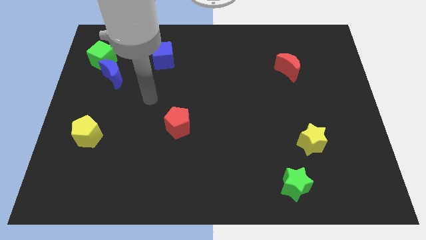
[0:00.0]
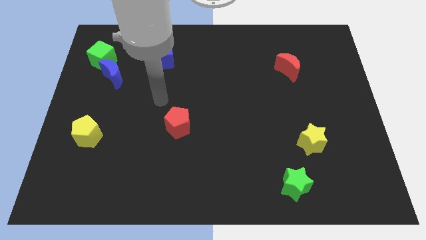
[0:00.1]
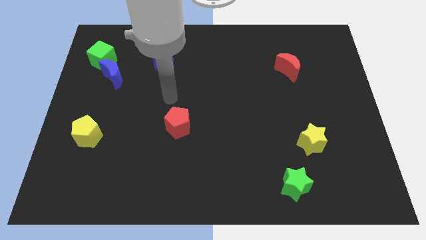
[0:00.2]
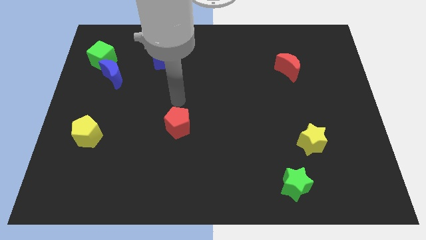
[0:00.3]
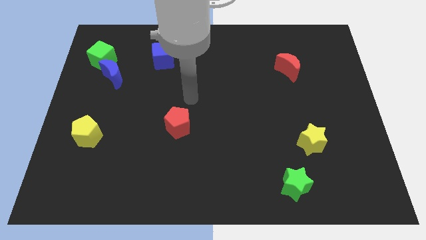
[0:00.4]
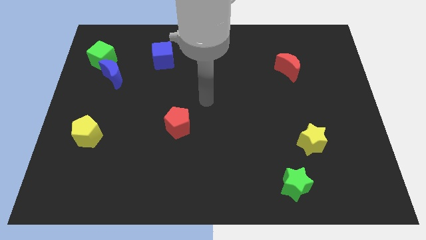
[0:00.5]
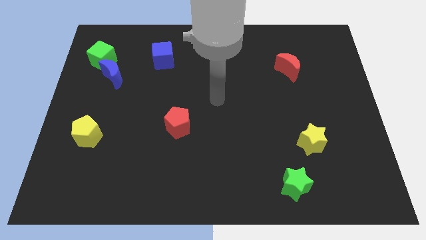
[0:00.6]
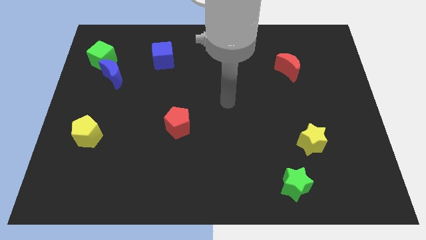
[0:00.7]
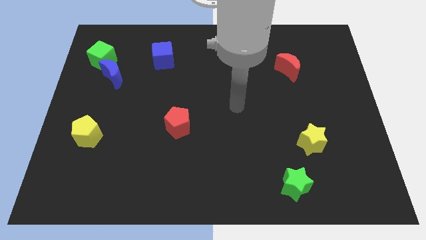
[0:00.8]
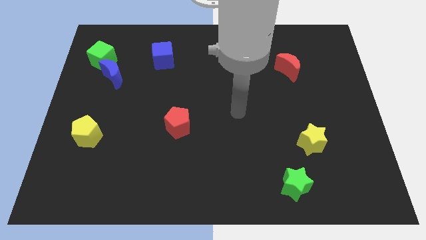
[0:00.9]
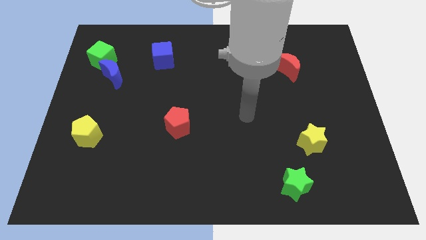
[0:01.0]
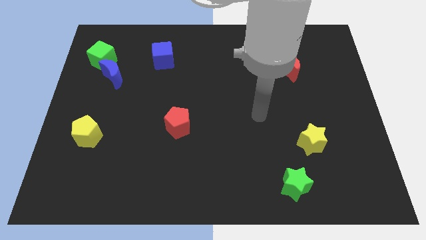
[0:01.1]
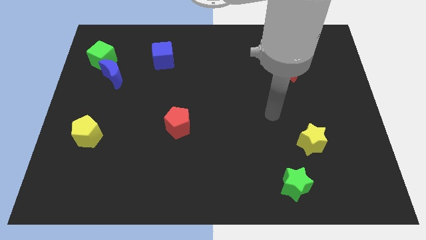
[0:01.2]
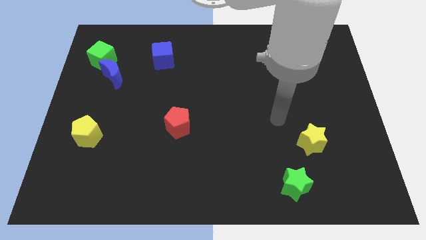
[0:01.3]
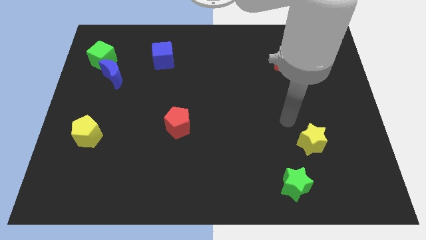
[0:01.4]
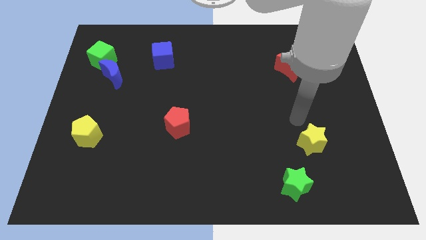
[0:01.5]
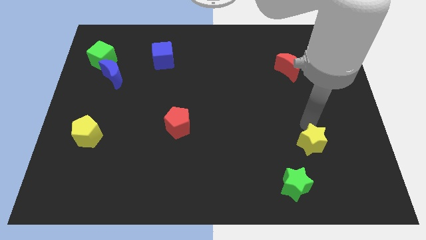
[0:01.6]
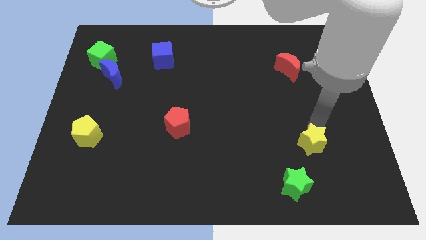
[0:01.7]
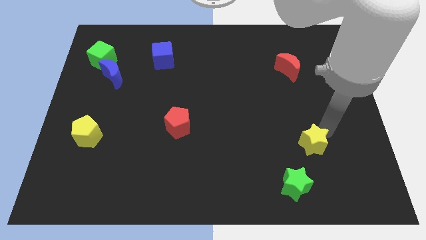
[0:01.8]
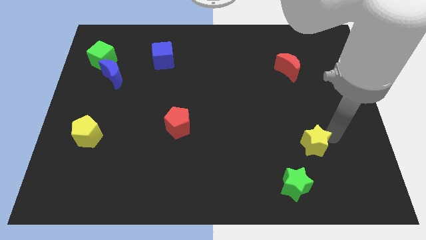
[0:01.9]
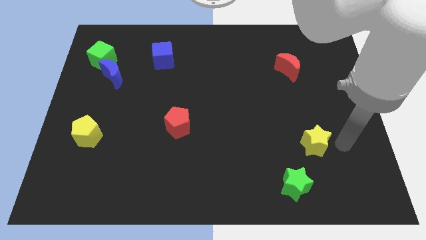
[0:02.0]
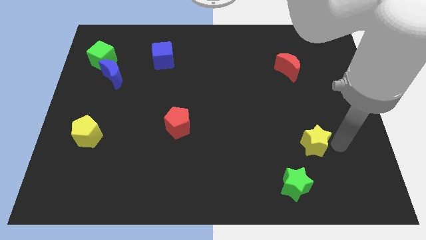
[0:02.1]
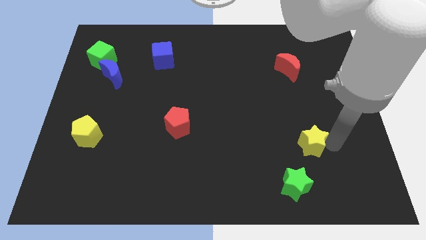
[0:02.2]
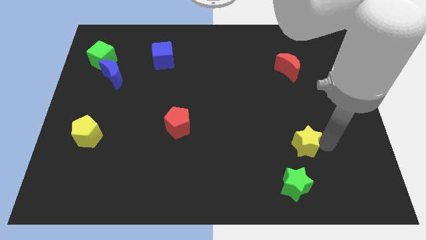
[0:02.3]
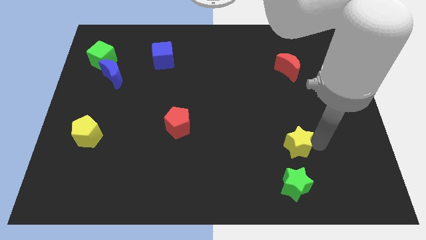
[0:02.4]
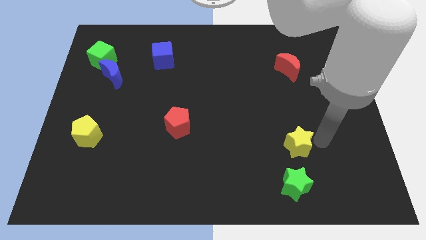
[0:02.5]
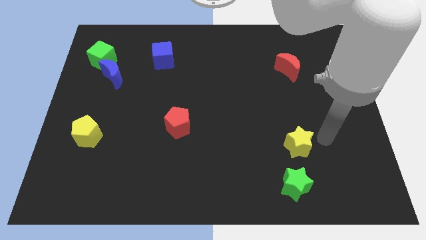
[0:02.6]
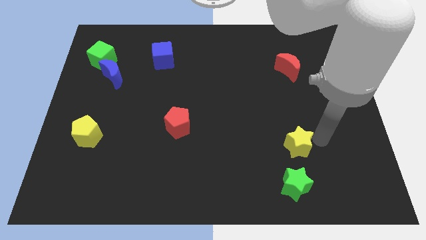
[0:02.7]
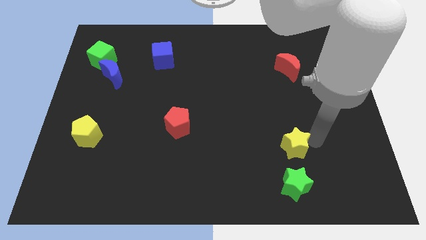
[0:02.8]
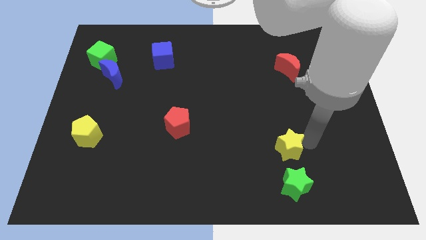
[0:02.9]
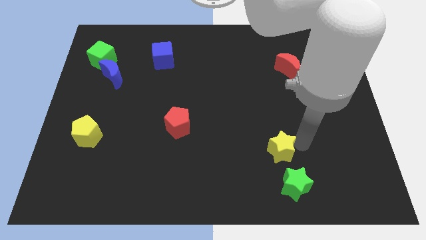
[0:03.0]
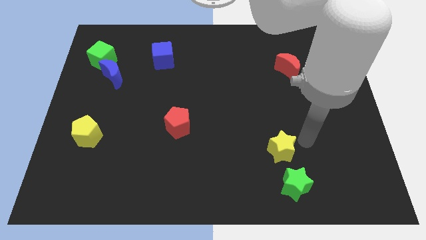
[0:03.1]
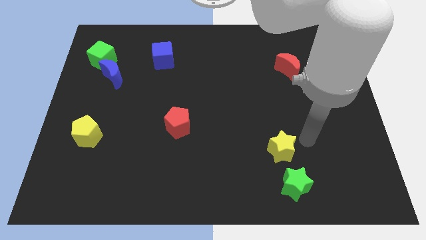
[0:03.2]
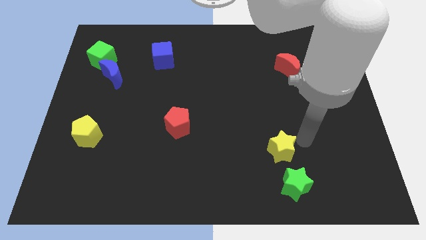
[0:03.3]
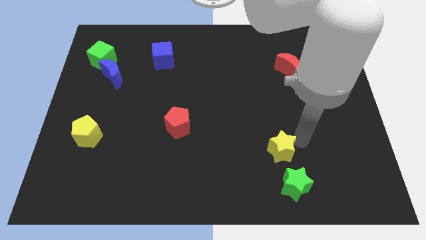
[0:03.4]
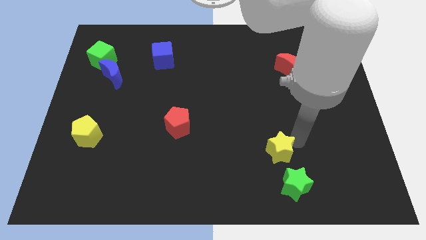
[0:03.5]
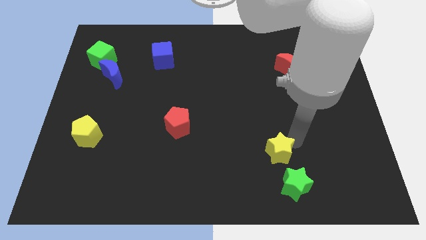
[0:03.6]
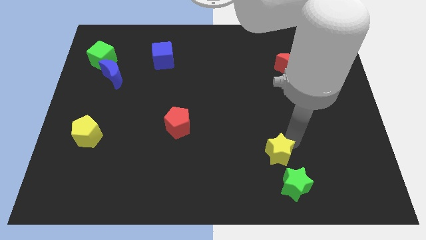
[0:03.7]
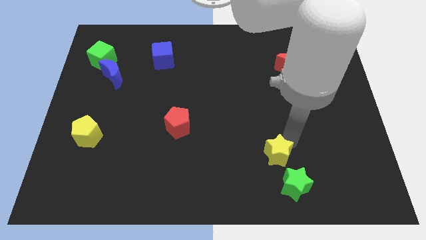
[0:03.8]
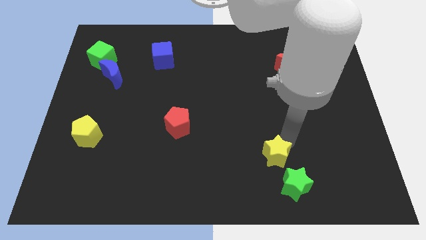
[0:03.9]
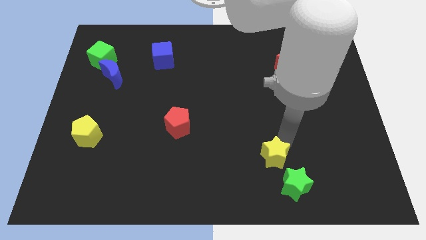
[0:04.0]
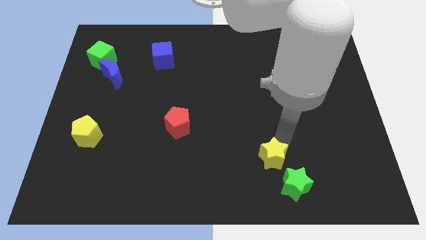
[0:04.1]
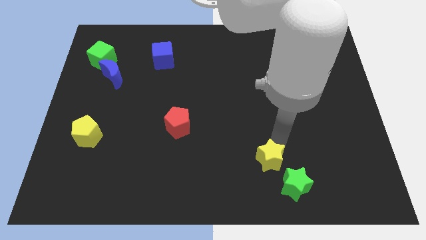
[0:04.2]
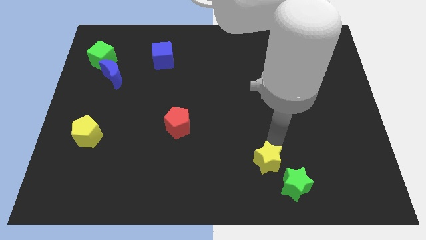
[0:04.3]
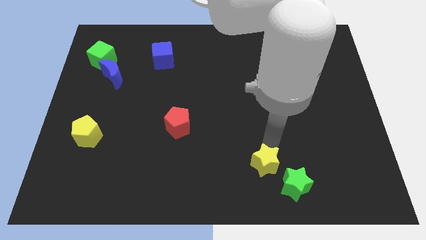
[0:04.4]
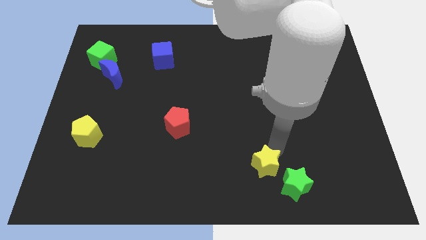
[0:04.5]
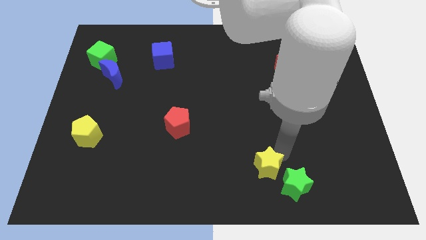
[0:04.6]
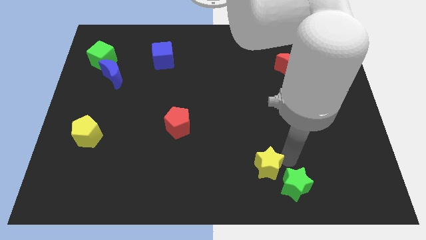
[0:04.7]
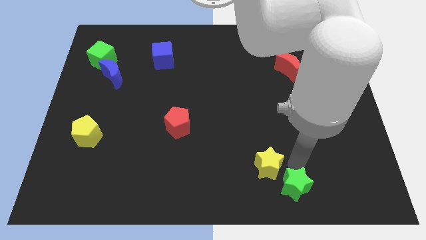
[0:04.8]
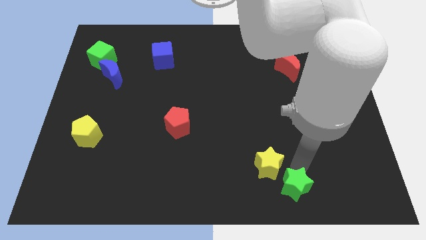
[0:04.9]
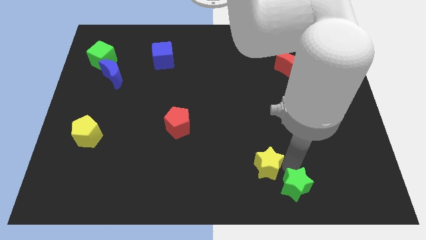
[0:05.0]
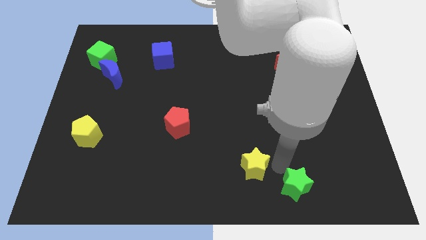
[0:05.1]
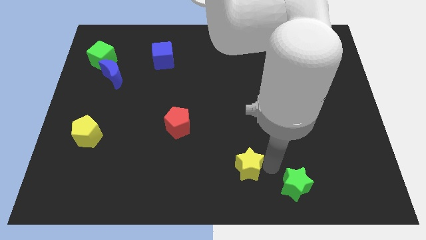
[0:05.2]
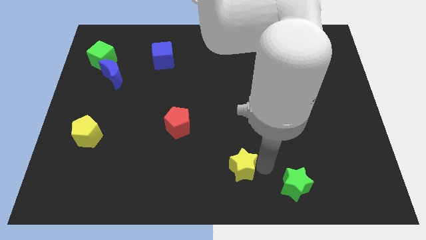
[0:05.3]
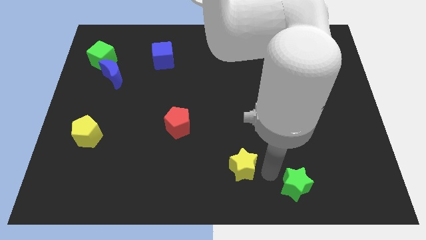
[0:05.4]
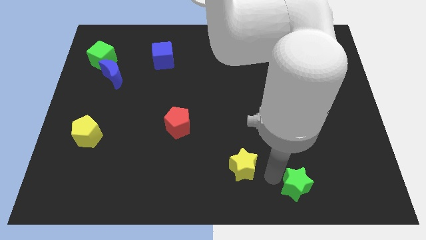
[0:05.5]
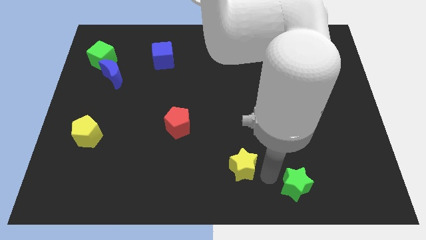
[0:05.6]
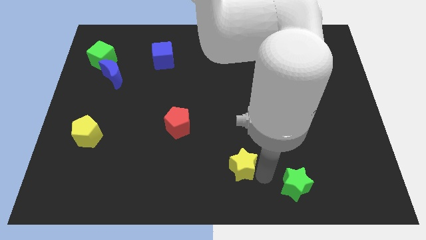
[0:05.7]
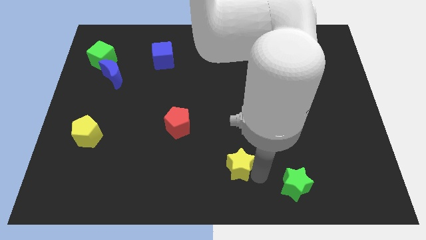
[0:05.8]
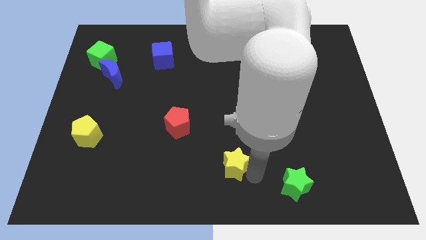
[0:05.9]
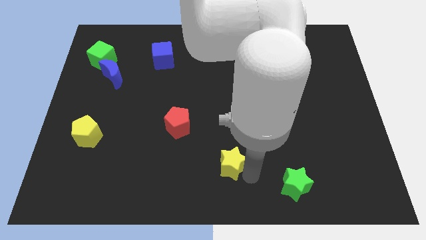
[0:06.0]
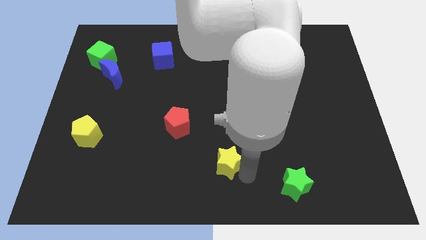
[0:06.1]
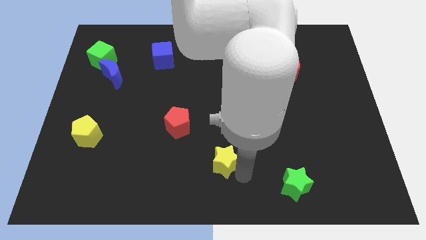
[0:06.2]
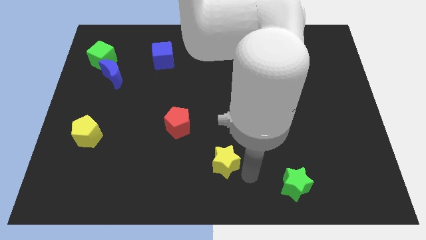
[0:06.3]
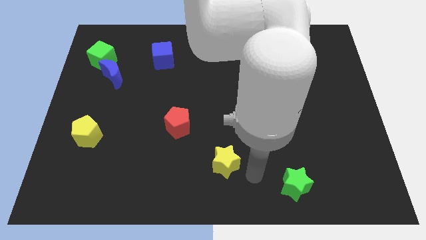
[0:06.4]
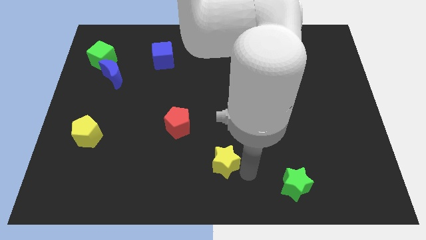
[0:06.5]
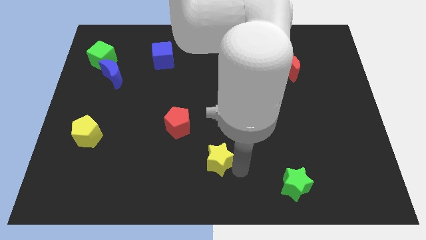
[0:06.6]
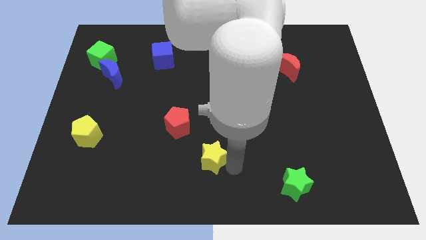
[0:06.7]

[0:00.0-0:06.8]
move the yellow star left

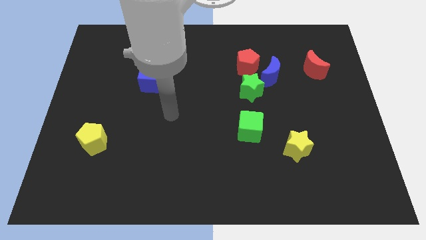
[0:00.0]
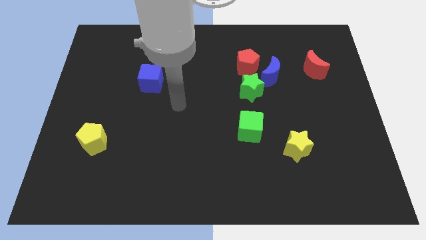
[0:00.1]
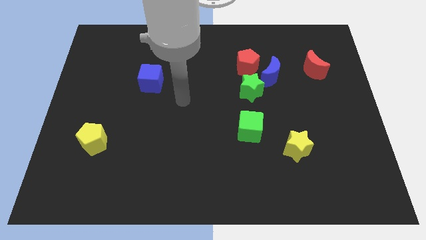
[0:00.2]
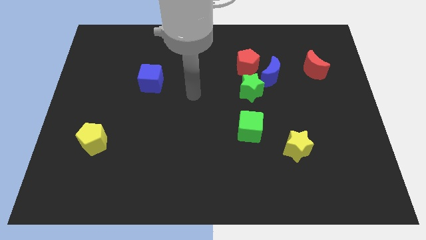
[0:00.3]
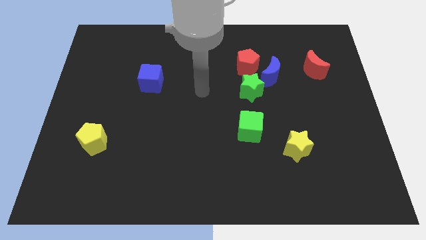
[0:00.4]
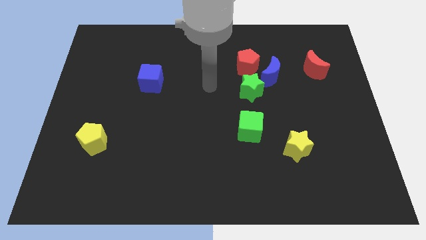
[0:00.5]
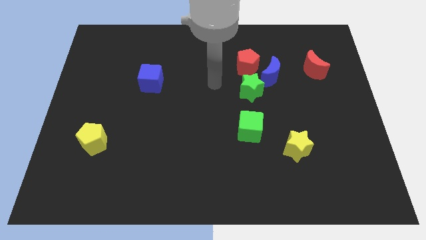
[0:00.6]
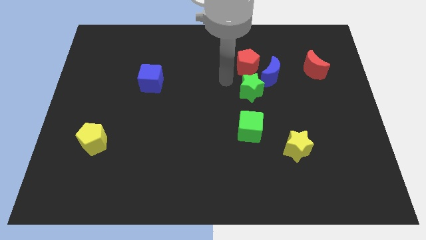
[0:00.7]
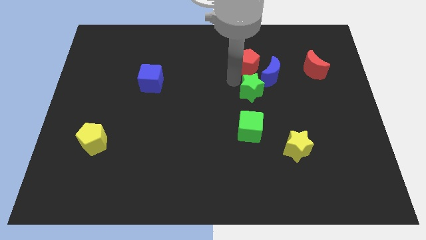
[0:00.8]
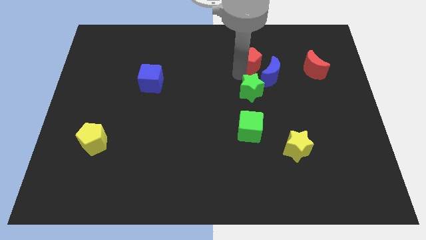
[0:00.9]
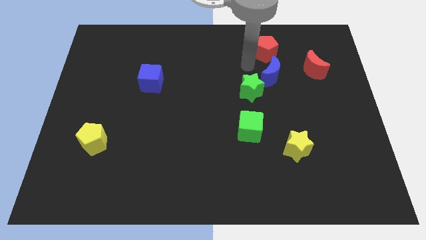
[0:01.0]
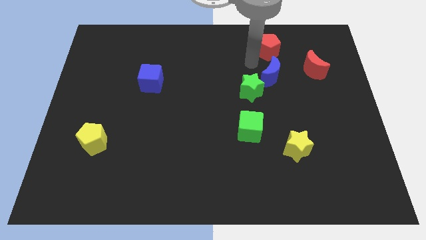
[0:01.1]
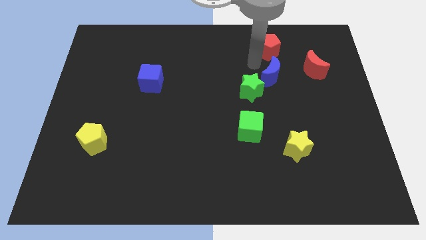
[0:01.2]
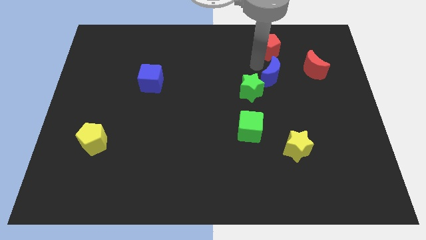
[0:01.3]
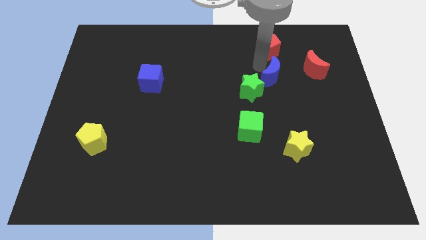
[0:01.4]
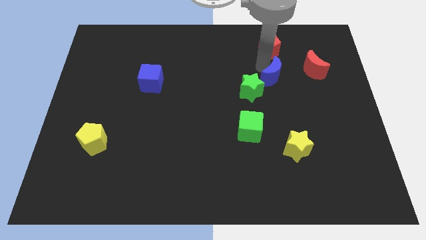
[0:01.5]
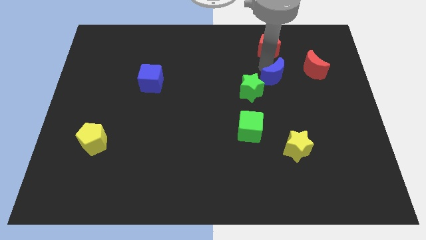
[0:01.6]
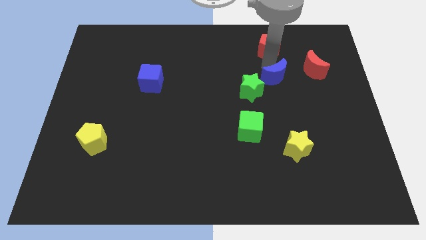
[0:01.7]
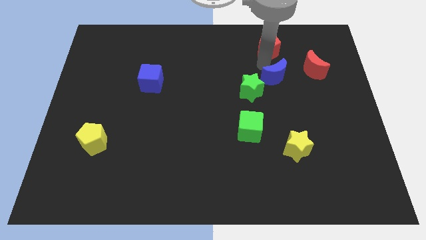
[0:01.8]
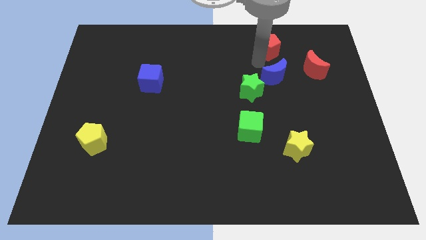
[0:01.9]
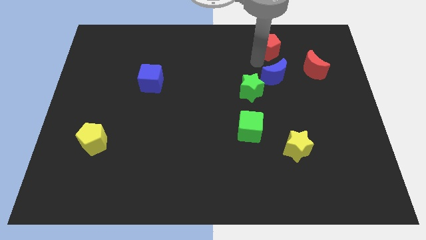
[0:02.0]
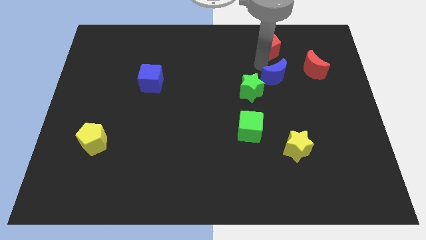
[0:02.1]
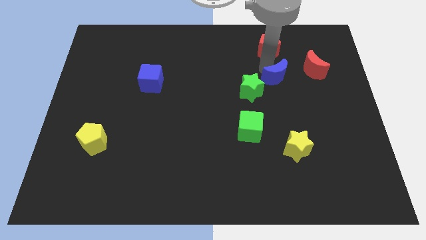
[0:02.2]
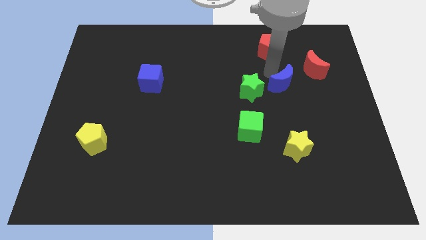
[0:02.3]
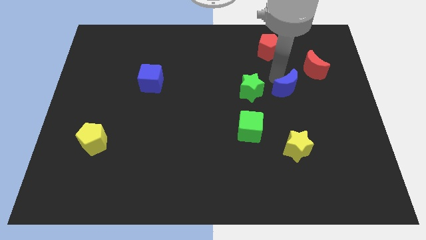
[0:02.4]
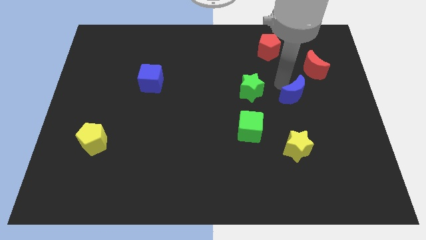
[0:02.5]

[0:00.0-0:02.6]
slightly move the blue moon down and then right
